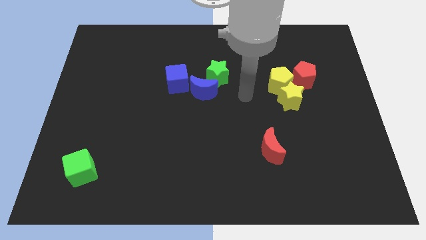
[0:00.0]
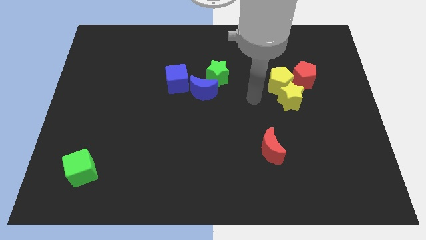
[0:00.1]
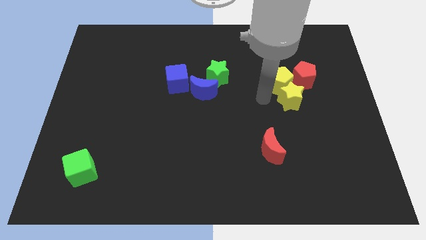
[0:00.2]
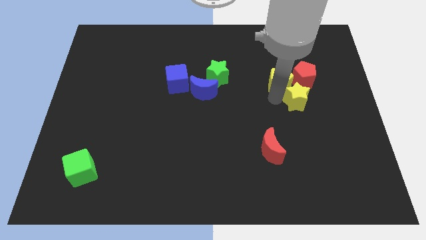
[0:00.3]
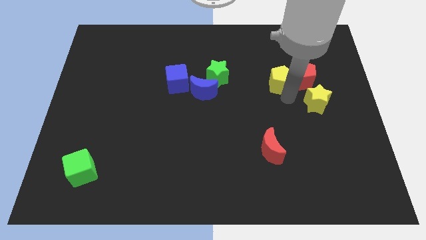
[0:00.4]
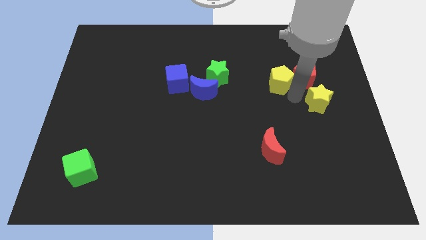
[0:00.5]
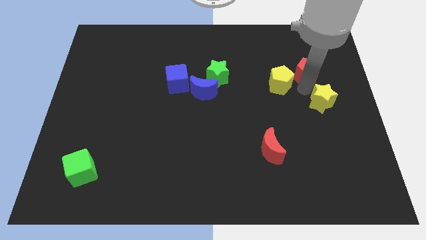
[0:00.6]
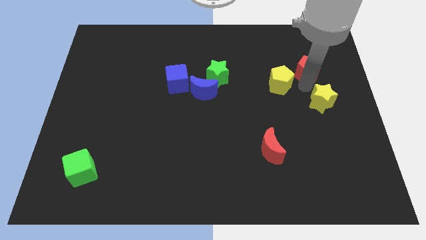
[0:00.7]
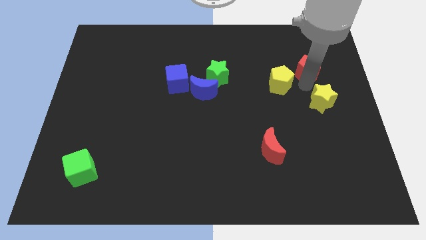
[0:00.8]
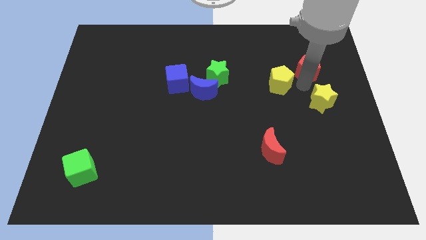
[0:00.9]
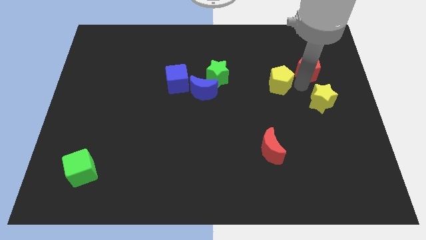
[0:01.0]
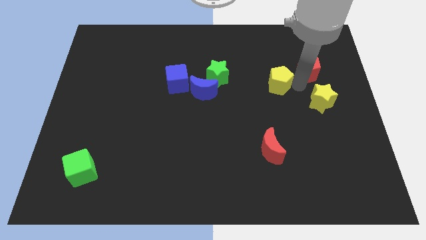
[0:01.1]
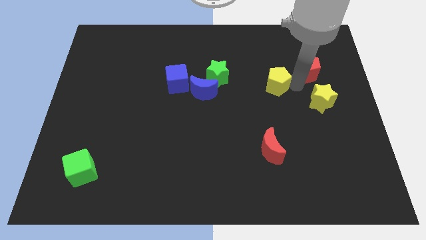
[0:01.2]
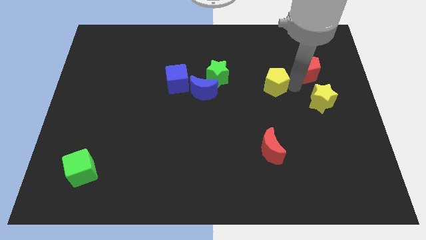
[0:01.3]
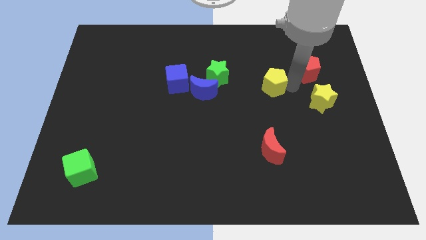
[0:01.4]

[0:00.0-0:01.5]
move the yellow pentagon away from the yellow star and red pentagon

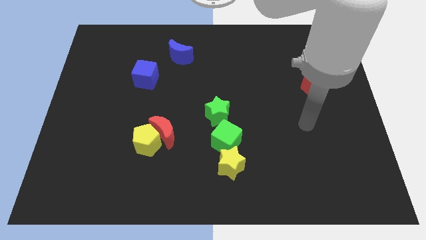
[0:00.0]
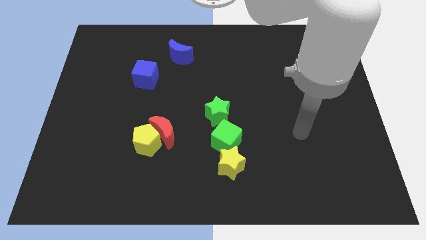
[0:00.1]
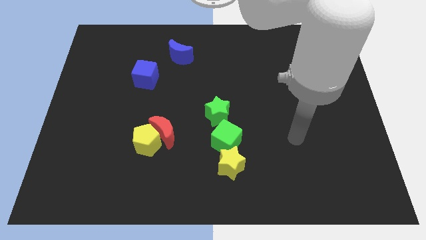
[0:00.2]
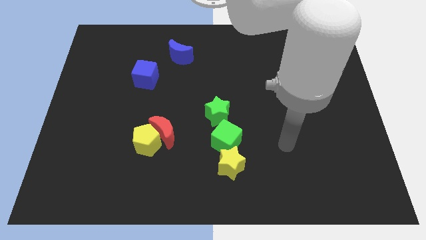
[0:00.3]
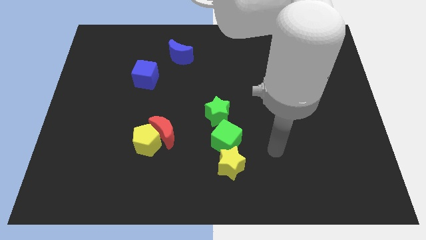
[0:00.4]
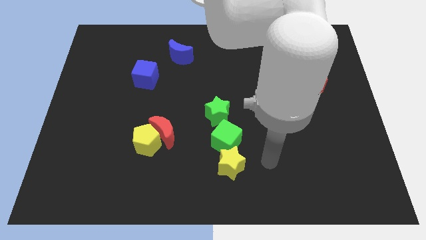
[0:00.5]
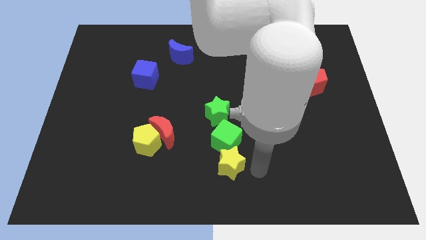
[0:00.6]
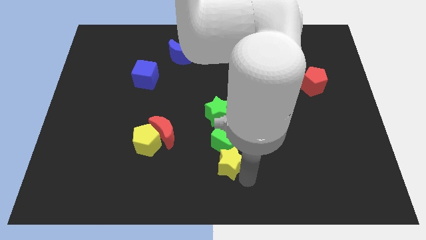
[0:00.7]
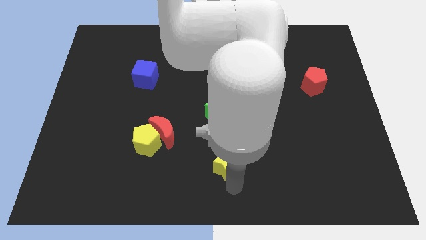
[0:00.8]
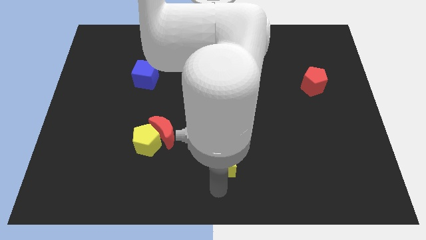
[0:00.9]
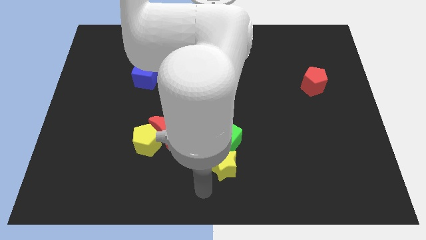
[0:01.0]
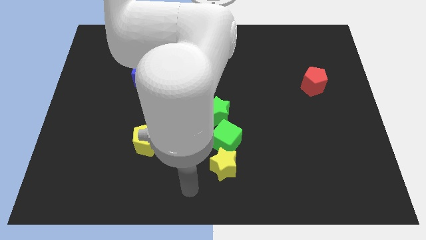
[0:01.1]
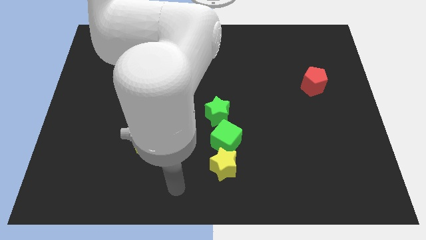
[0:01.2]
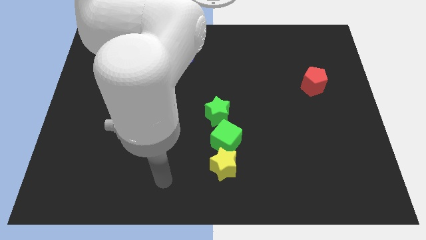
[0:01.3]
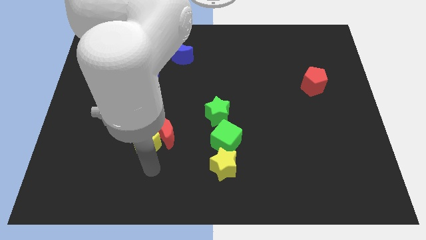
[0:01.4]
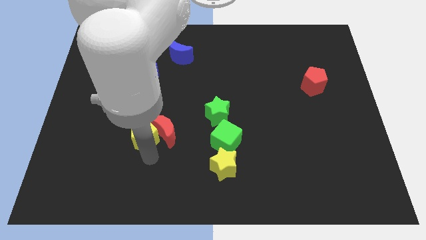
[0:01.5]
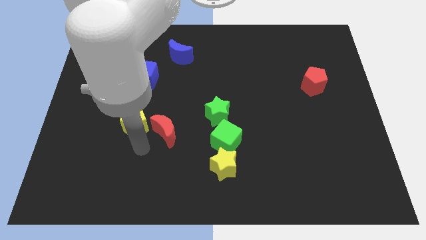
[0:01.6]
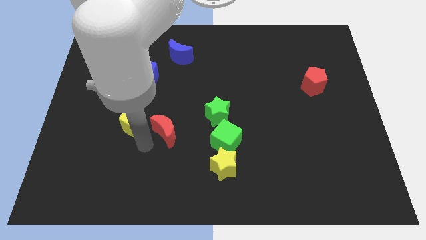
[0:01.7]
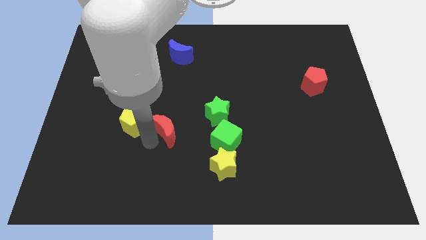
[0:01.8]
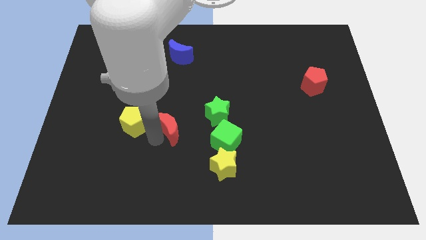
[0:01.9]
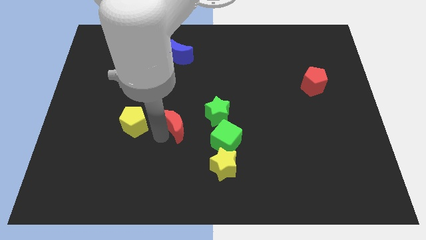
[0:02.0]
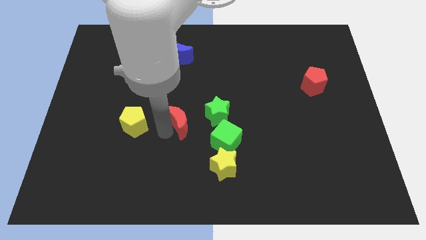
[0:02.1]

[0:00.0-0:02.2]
move the red moon away from the yellow pentagon

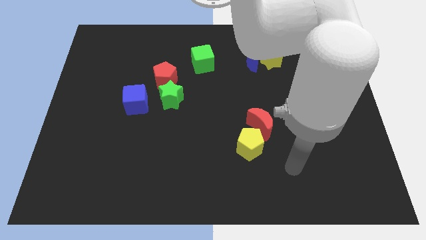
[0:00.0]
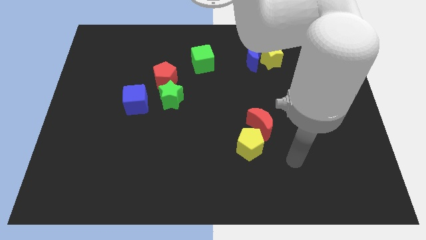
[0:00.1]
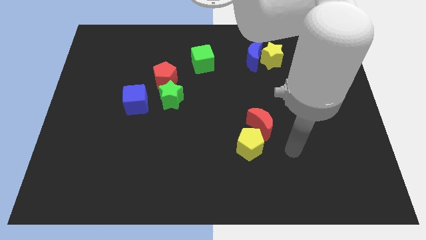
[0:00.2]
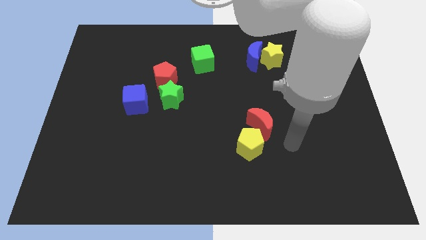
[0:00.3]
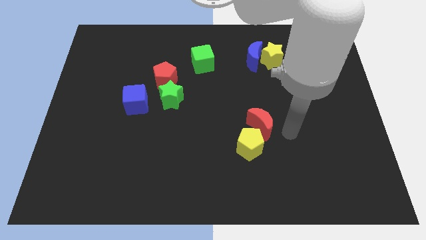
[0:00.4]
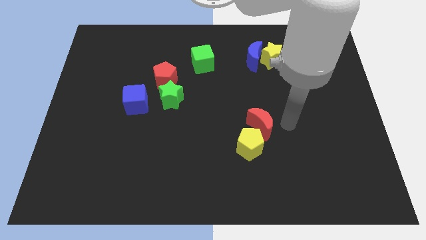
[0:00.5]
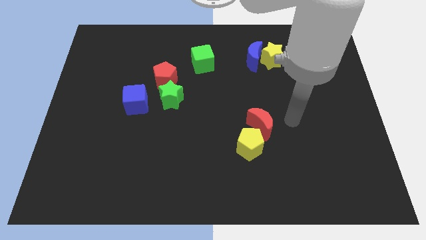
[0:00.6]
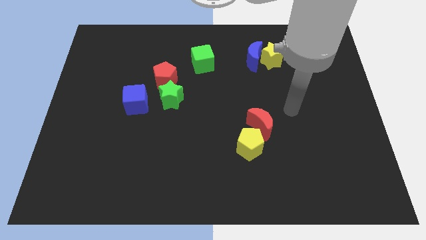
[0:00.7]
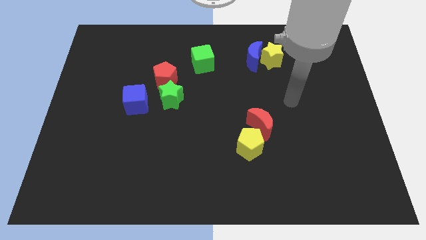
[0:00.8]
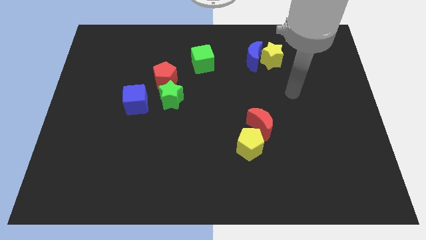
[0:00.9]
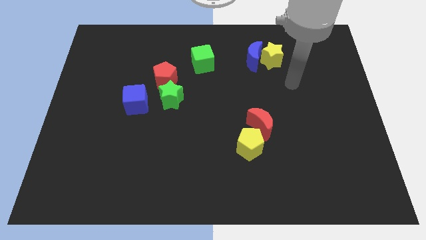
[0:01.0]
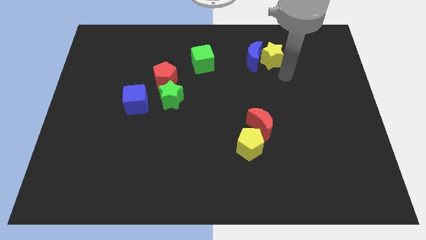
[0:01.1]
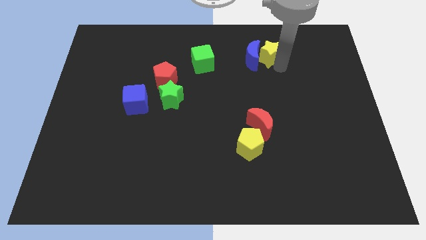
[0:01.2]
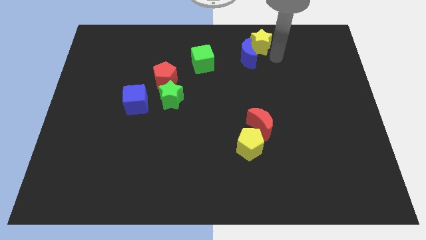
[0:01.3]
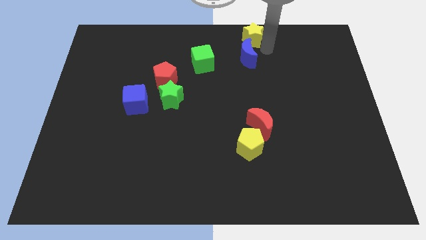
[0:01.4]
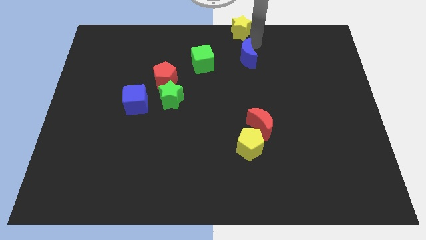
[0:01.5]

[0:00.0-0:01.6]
separate the blue moon from the yellow star

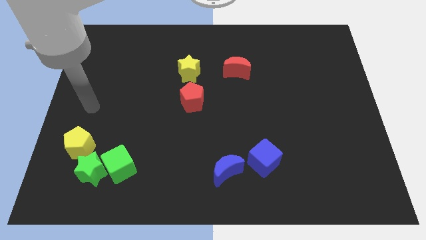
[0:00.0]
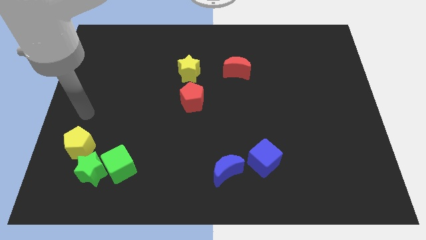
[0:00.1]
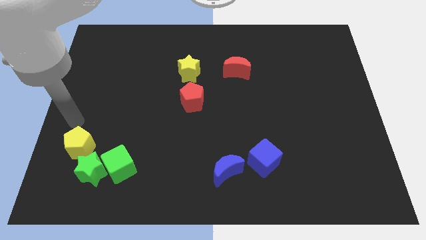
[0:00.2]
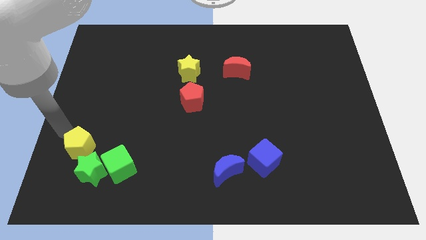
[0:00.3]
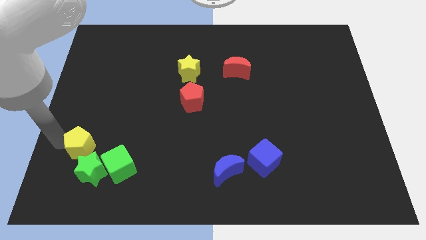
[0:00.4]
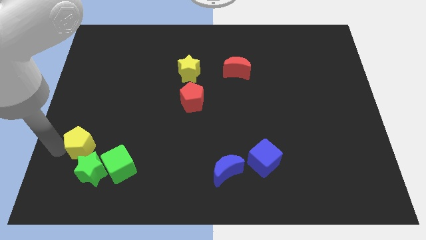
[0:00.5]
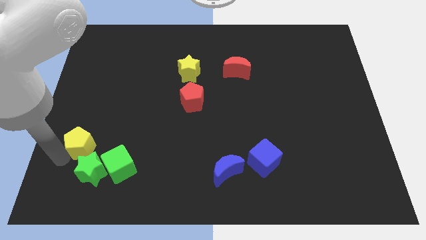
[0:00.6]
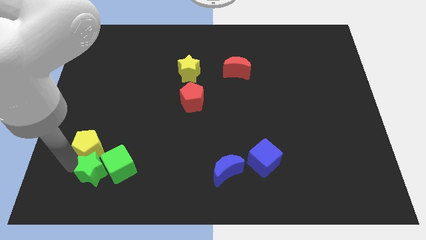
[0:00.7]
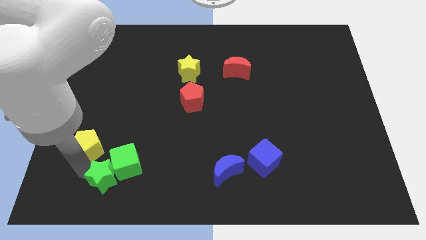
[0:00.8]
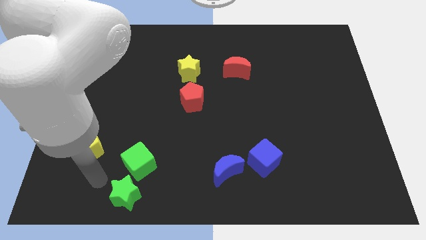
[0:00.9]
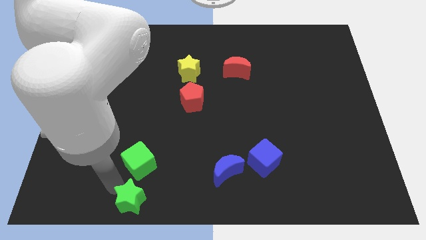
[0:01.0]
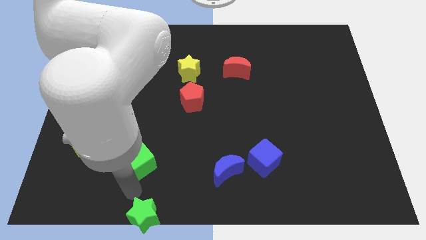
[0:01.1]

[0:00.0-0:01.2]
pull the green cube apart from the green star

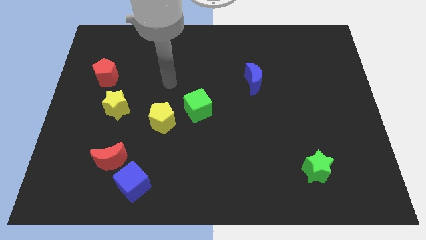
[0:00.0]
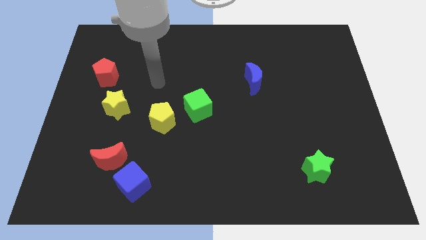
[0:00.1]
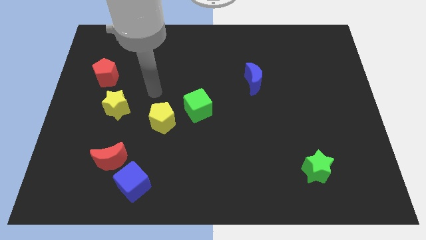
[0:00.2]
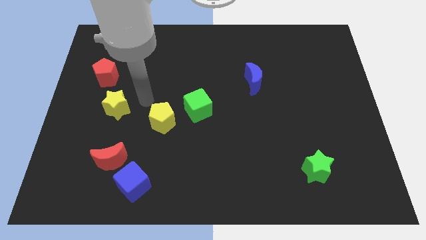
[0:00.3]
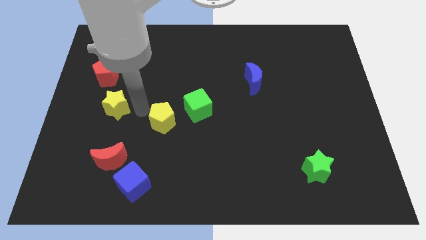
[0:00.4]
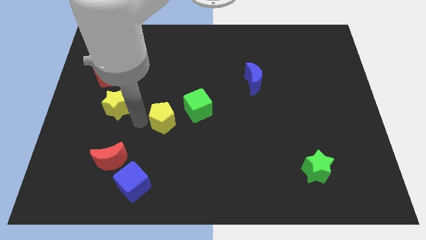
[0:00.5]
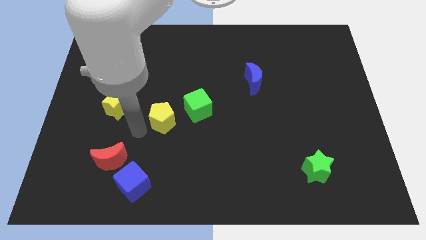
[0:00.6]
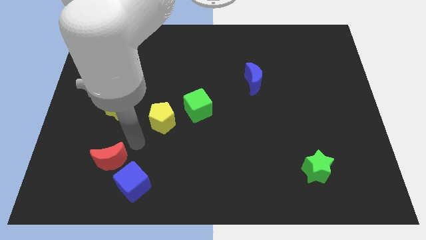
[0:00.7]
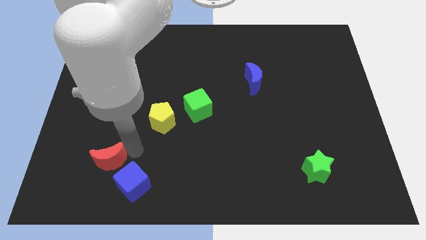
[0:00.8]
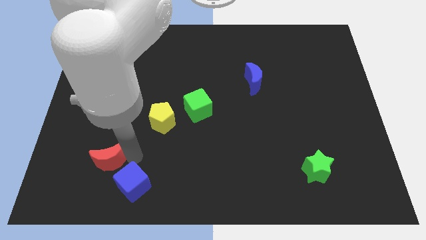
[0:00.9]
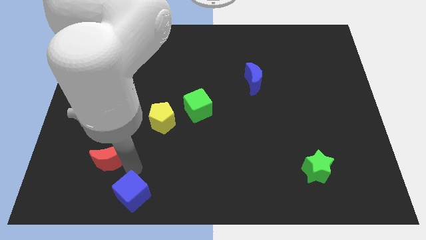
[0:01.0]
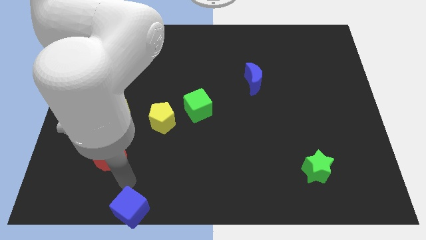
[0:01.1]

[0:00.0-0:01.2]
move the red moon away from the blue cube

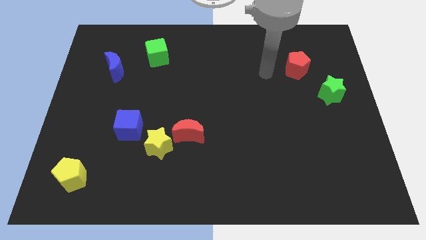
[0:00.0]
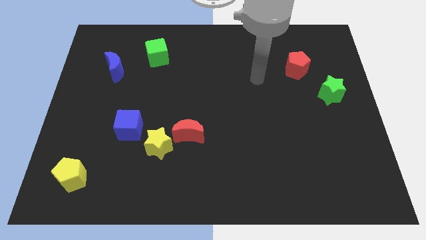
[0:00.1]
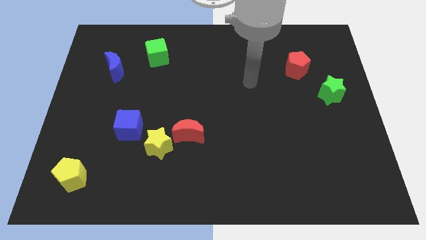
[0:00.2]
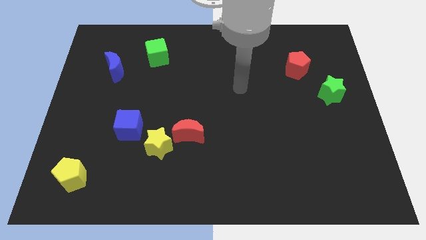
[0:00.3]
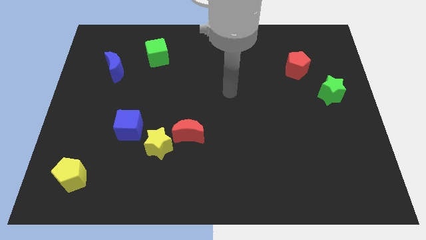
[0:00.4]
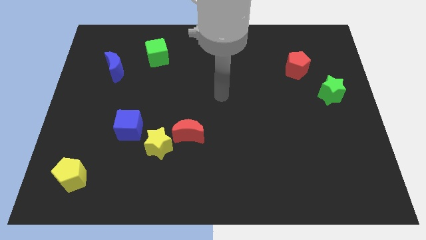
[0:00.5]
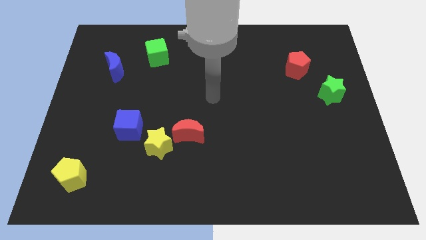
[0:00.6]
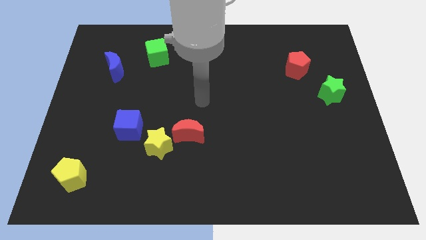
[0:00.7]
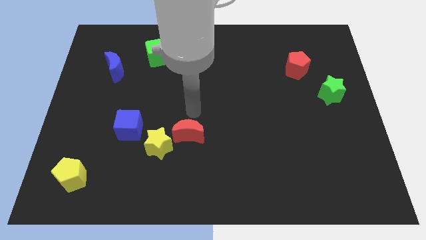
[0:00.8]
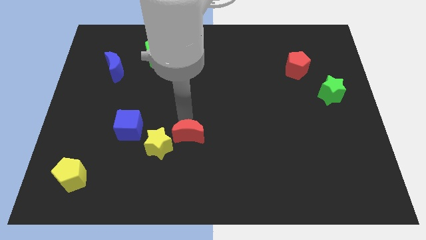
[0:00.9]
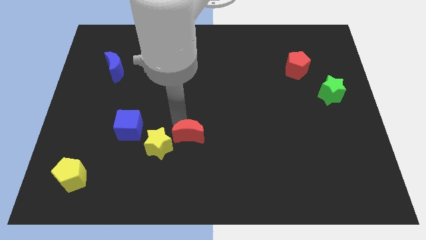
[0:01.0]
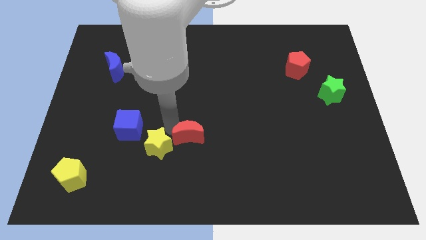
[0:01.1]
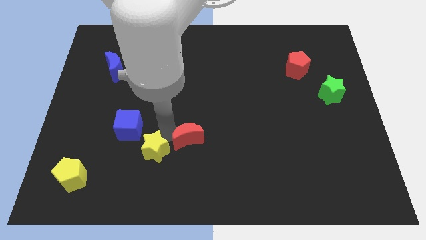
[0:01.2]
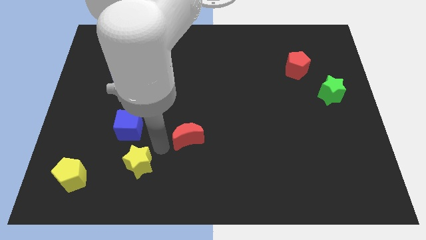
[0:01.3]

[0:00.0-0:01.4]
pull the red moon apart from the yellow star

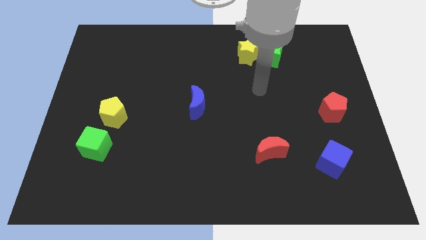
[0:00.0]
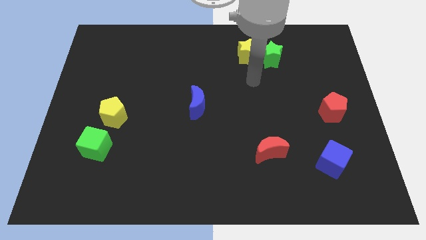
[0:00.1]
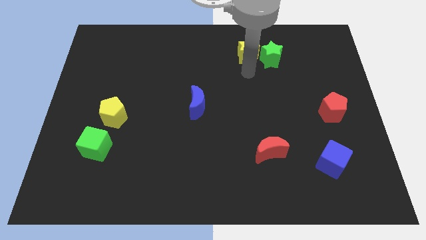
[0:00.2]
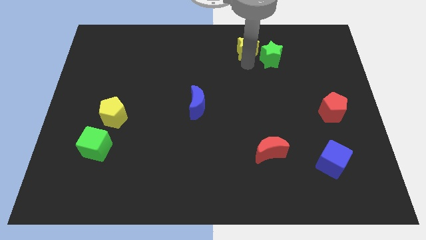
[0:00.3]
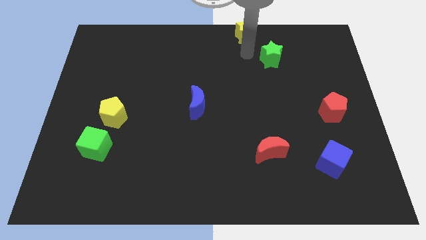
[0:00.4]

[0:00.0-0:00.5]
pull the green star apart from the yellow star
